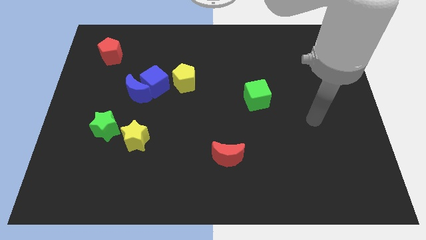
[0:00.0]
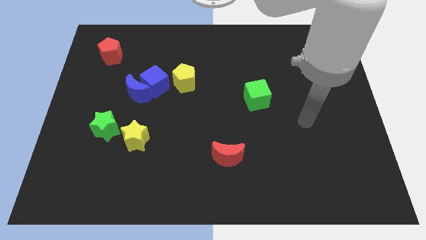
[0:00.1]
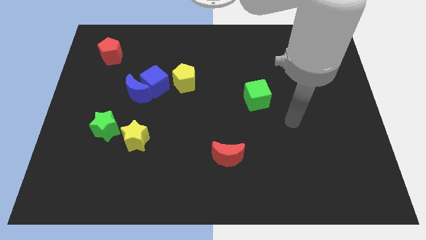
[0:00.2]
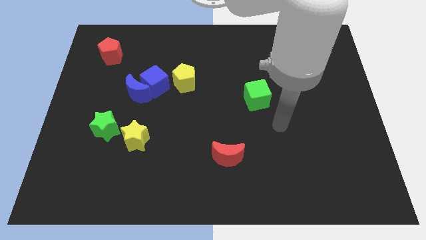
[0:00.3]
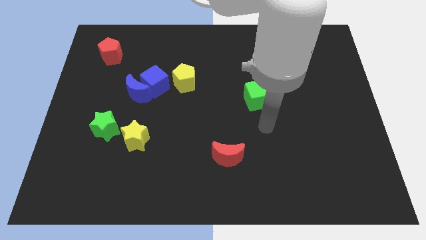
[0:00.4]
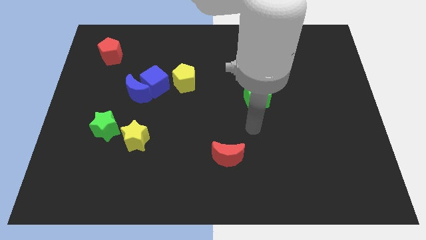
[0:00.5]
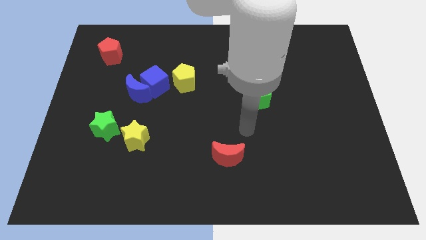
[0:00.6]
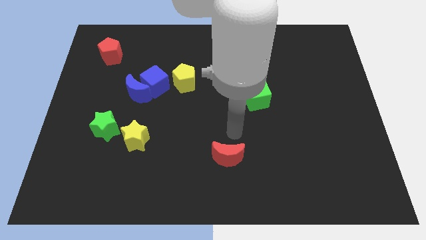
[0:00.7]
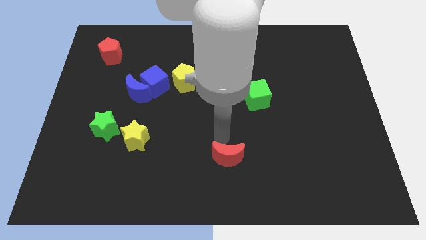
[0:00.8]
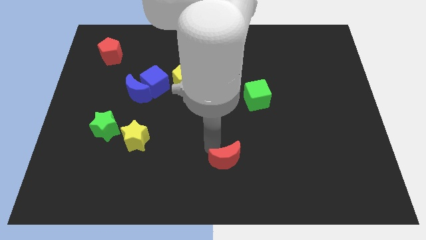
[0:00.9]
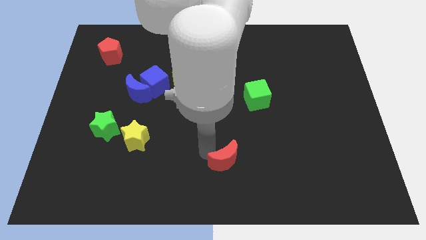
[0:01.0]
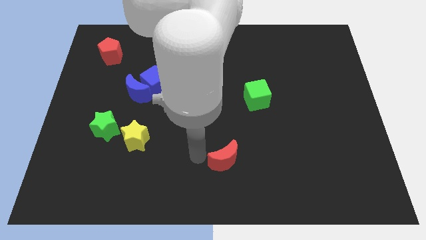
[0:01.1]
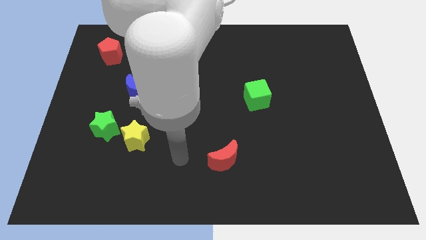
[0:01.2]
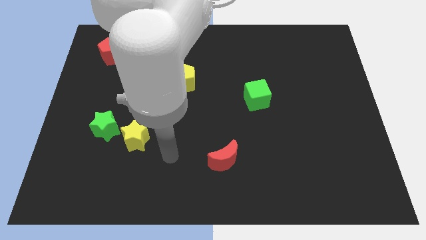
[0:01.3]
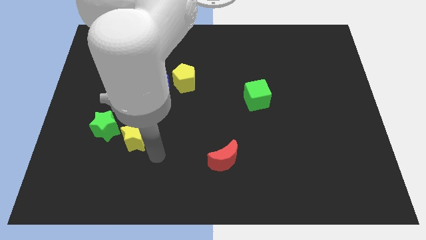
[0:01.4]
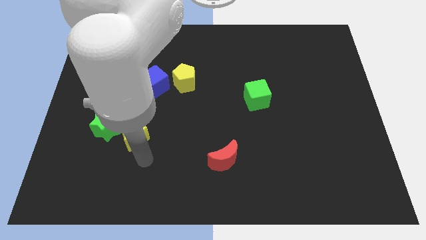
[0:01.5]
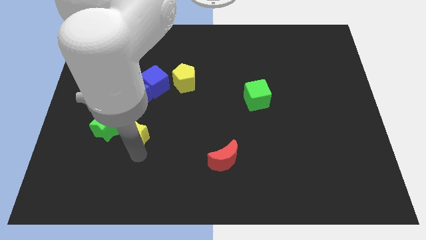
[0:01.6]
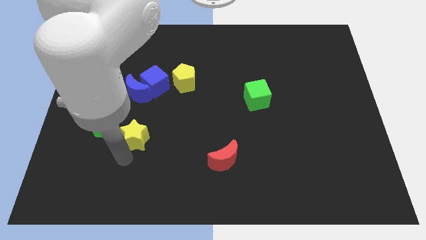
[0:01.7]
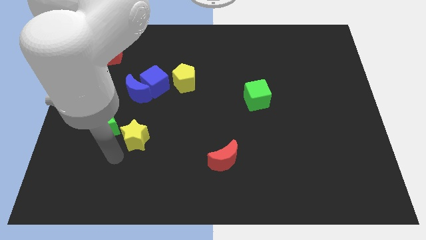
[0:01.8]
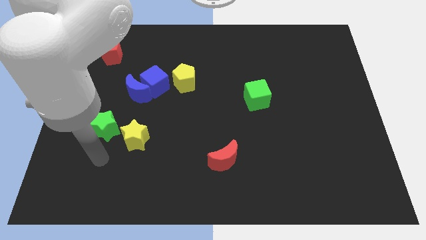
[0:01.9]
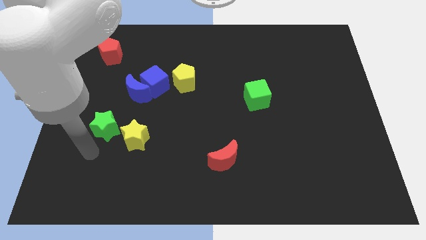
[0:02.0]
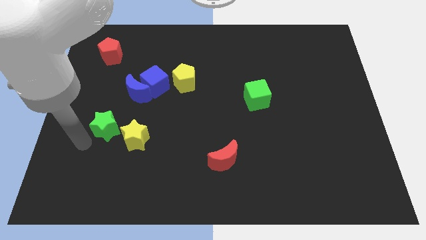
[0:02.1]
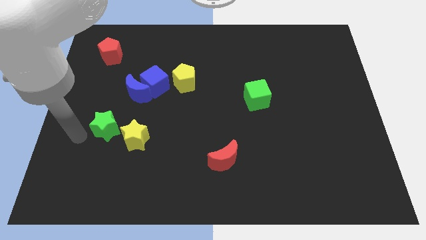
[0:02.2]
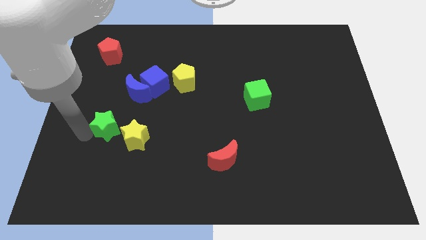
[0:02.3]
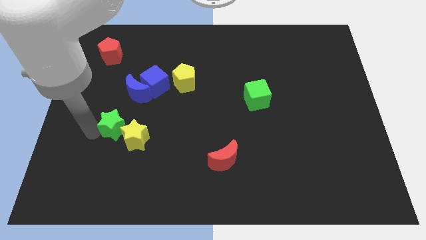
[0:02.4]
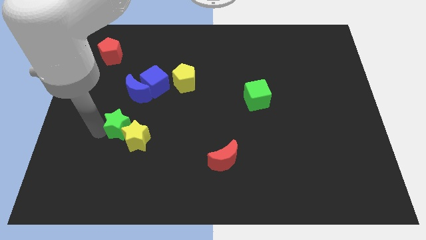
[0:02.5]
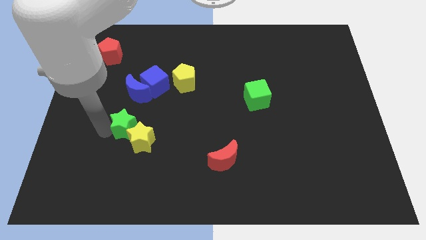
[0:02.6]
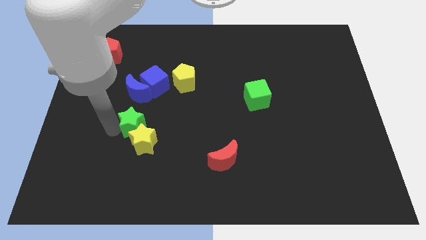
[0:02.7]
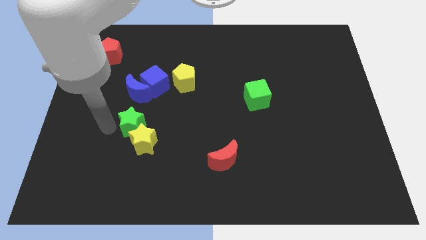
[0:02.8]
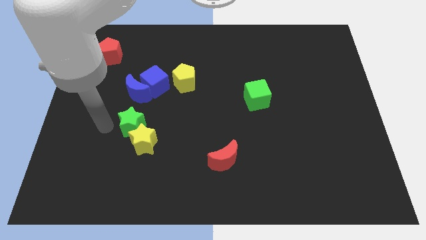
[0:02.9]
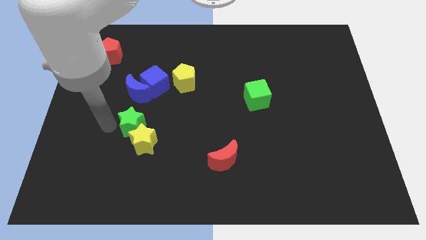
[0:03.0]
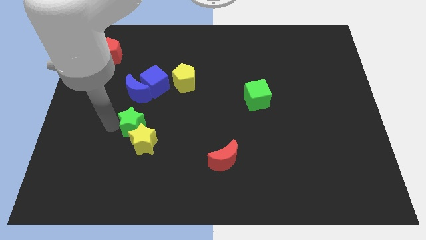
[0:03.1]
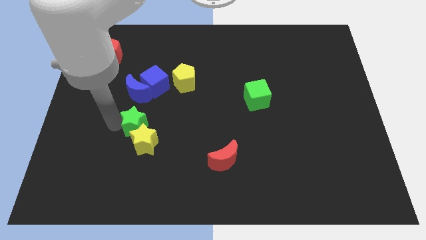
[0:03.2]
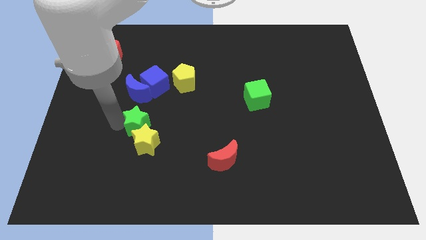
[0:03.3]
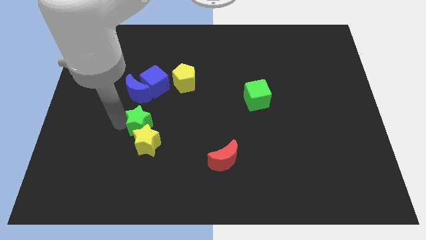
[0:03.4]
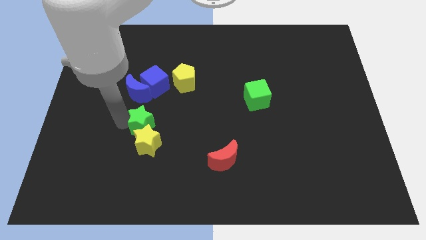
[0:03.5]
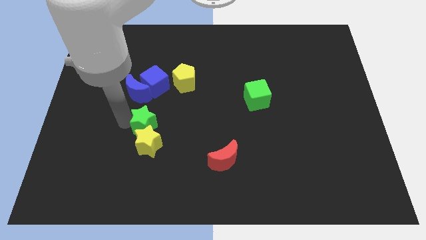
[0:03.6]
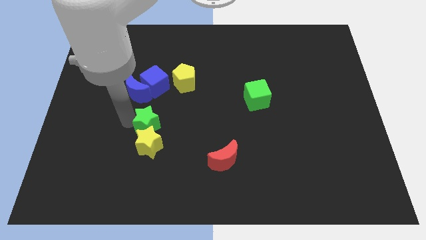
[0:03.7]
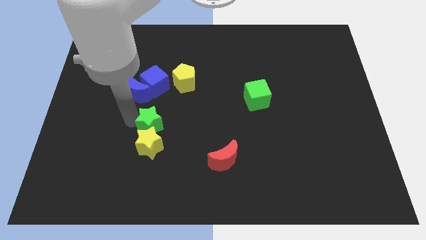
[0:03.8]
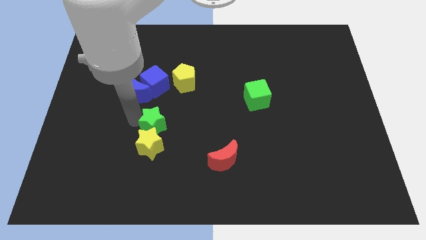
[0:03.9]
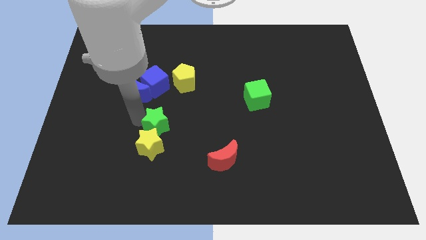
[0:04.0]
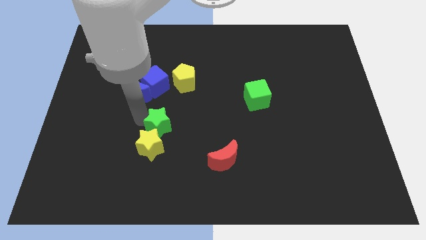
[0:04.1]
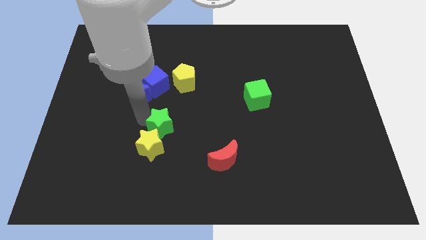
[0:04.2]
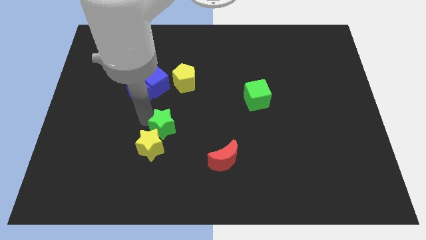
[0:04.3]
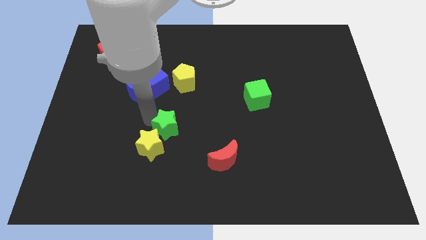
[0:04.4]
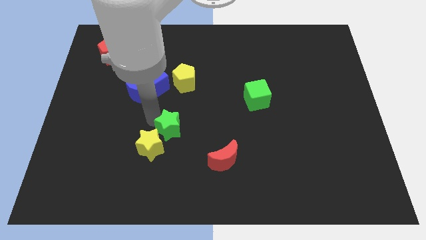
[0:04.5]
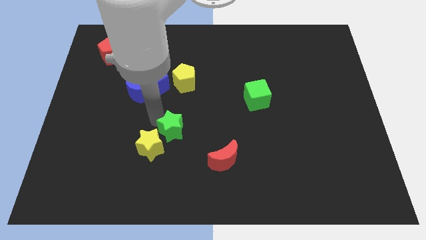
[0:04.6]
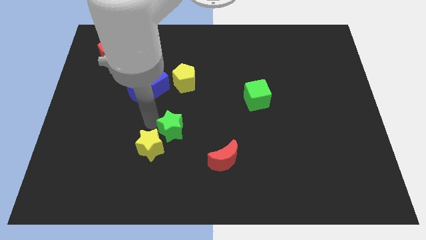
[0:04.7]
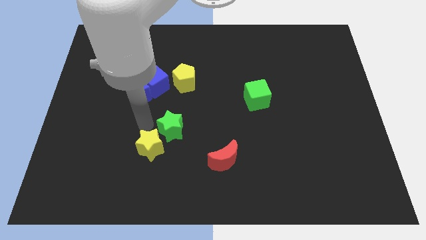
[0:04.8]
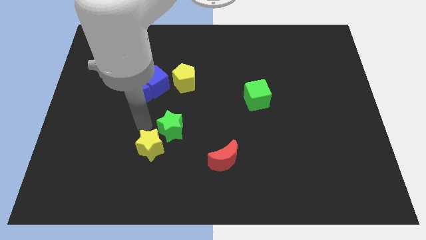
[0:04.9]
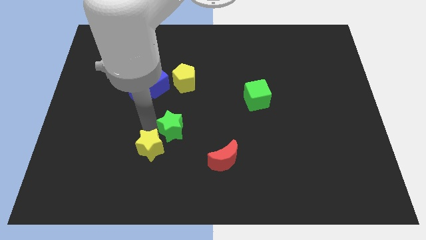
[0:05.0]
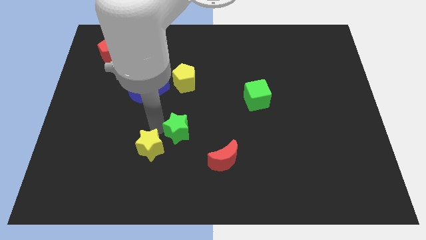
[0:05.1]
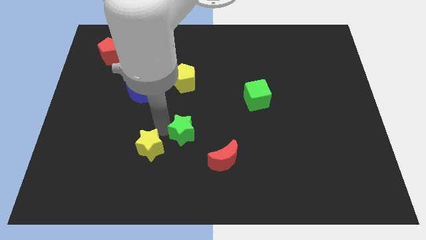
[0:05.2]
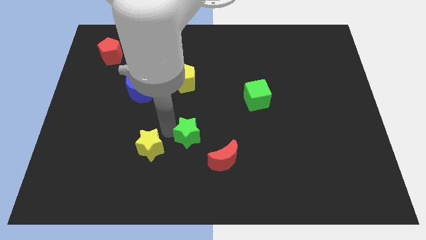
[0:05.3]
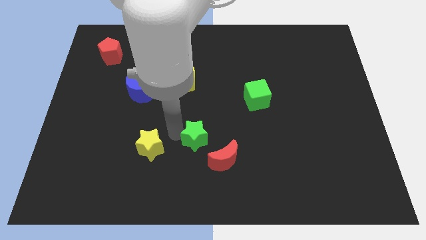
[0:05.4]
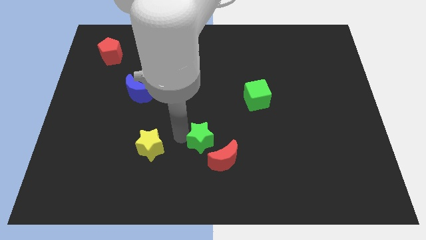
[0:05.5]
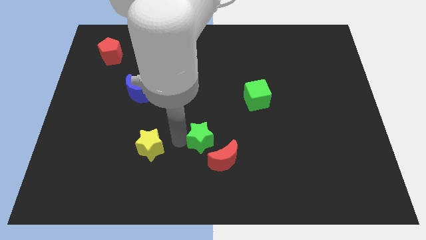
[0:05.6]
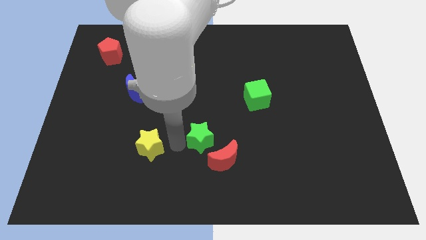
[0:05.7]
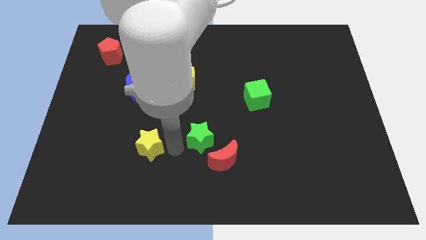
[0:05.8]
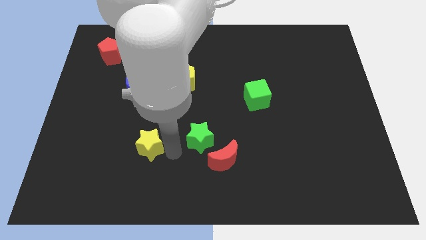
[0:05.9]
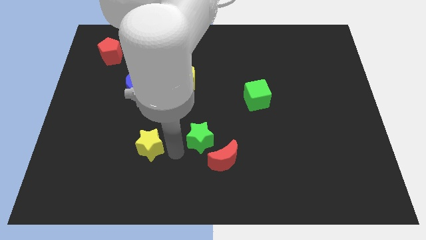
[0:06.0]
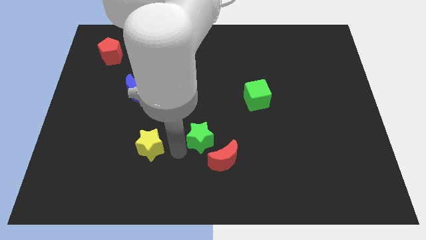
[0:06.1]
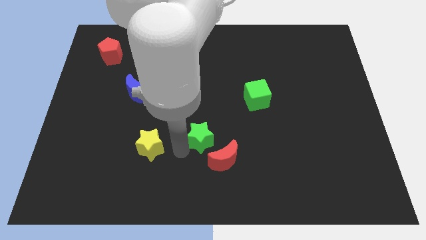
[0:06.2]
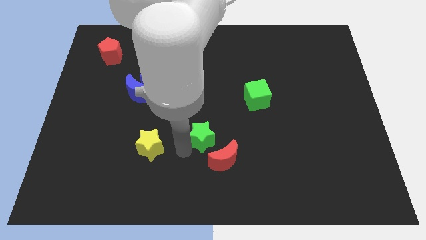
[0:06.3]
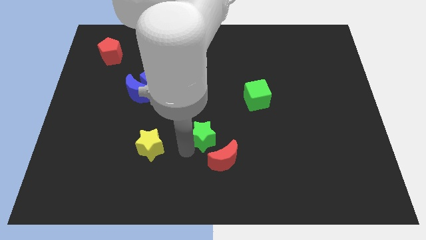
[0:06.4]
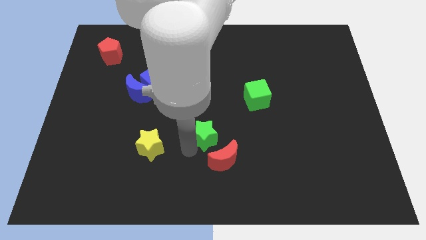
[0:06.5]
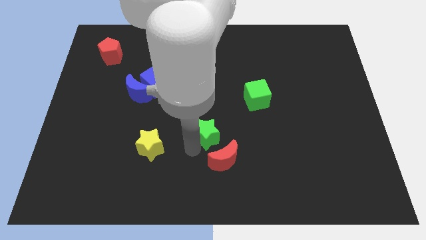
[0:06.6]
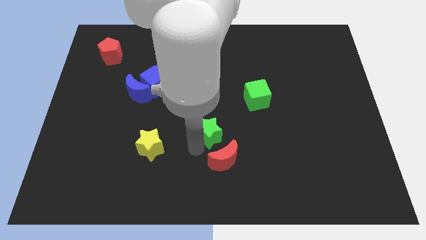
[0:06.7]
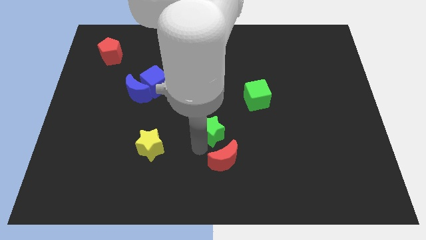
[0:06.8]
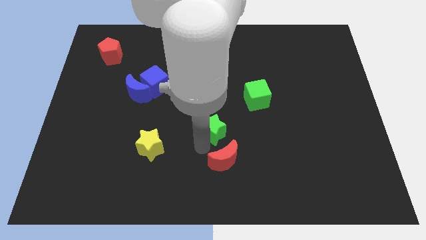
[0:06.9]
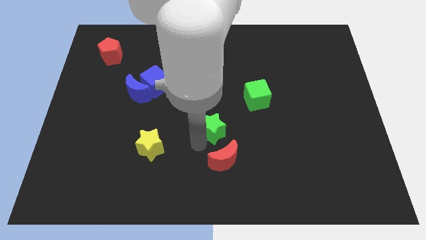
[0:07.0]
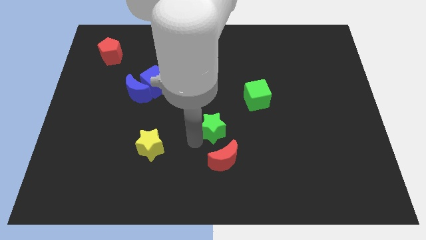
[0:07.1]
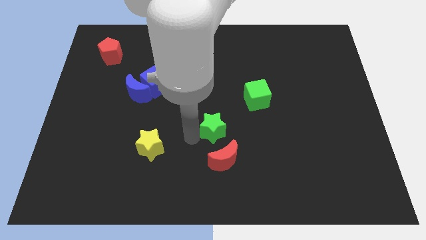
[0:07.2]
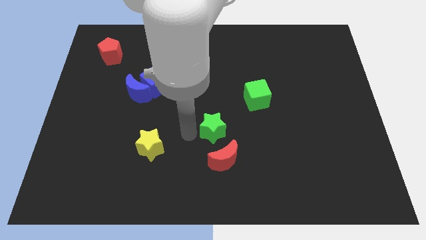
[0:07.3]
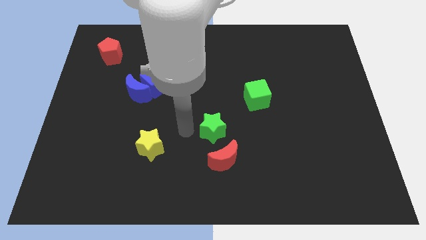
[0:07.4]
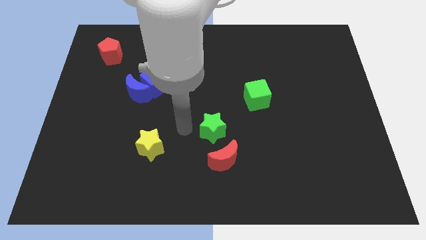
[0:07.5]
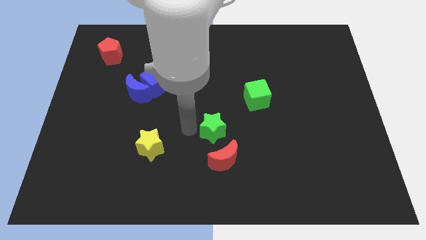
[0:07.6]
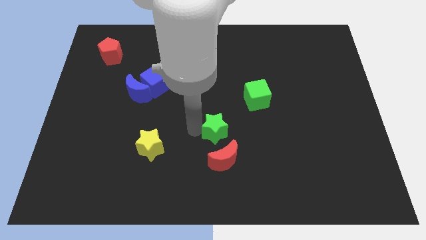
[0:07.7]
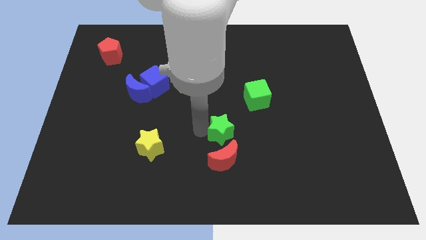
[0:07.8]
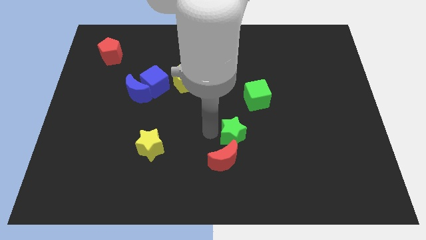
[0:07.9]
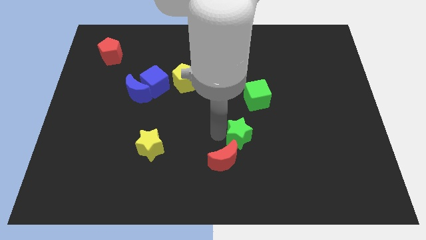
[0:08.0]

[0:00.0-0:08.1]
slide the green star to the bottom side of the green cube
